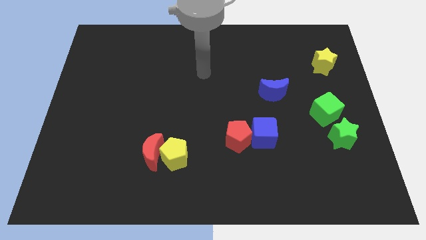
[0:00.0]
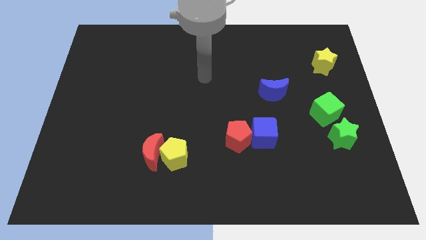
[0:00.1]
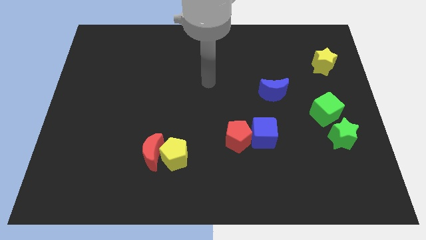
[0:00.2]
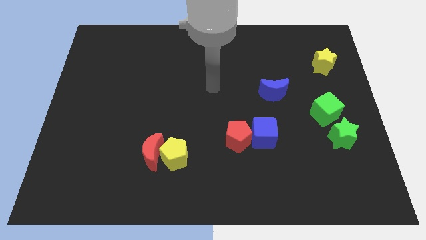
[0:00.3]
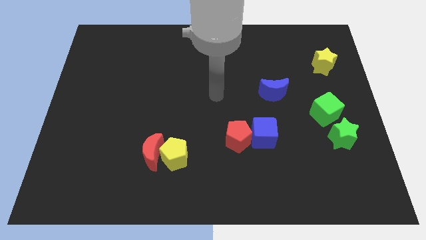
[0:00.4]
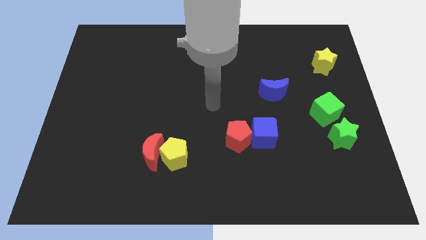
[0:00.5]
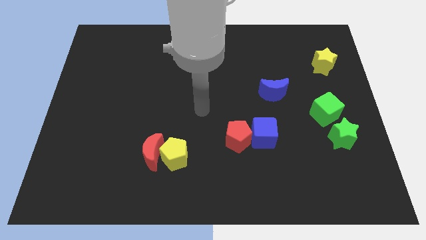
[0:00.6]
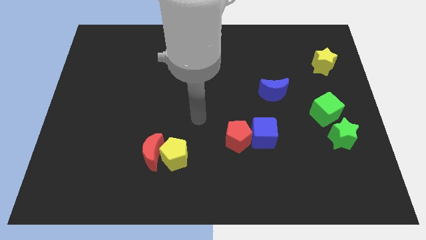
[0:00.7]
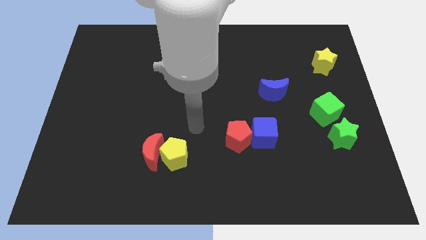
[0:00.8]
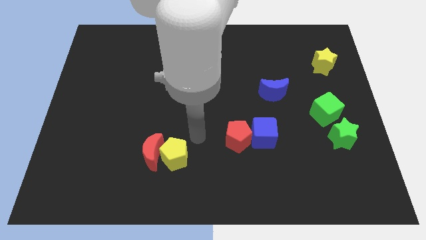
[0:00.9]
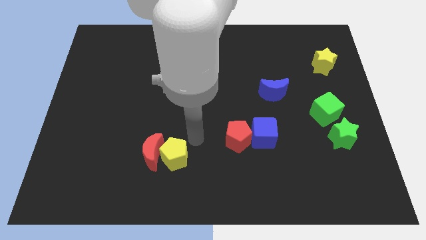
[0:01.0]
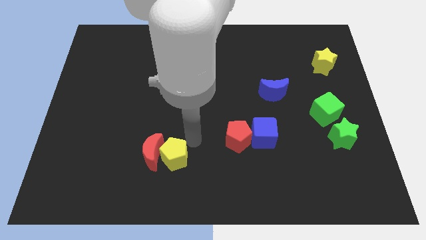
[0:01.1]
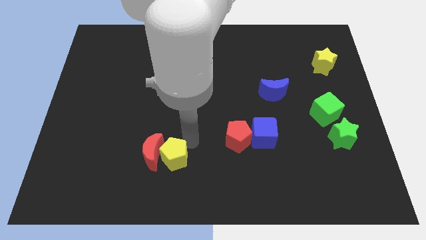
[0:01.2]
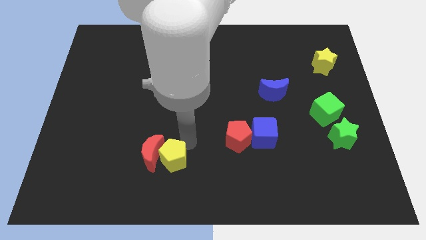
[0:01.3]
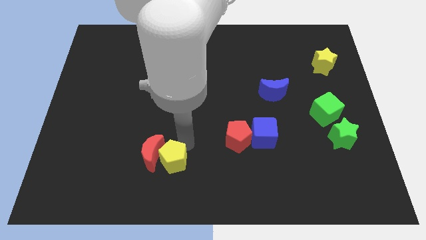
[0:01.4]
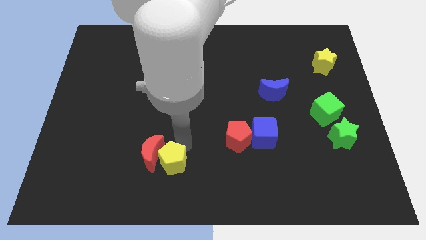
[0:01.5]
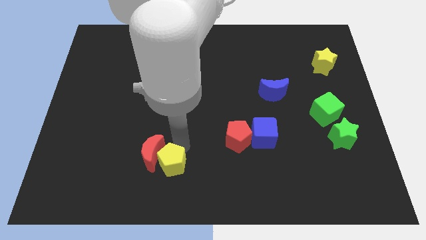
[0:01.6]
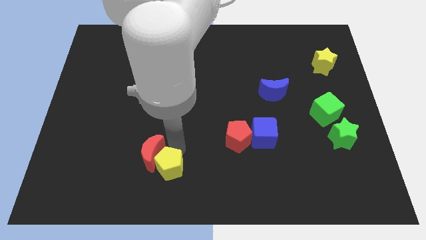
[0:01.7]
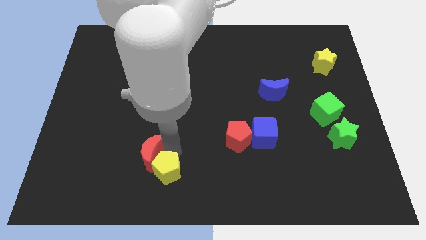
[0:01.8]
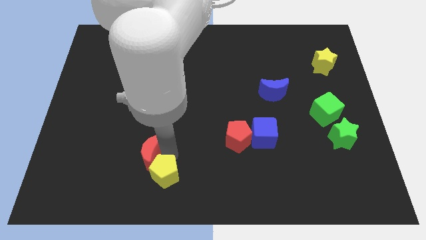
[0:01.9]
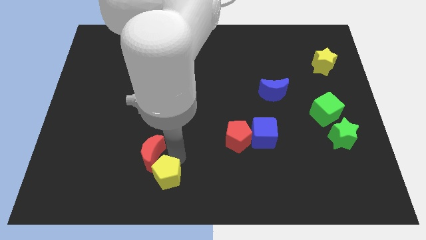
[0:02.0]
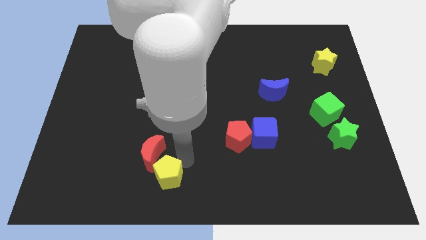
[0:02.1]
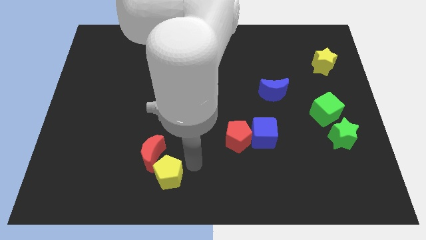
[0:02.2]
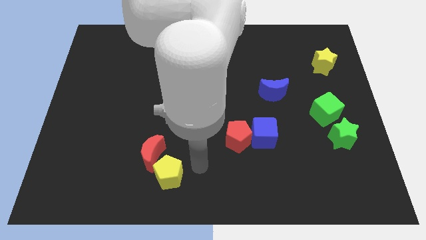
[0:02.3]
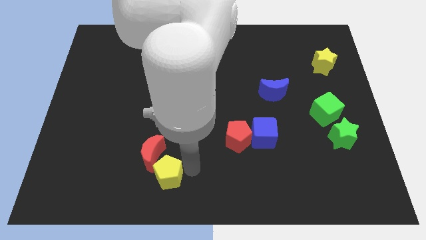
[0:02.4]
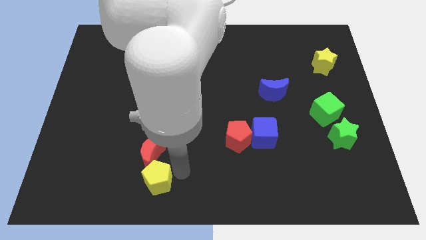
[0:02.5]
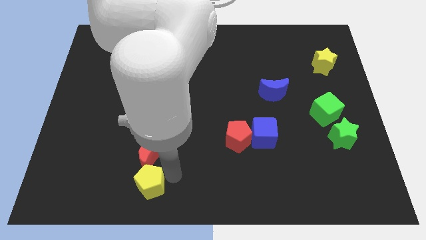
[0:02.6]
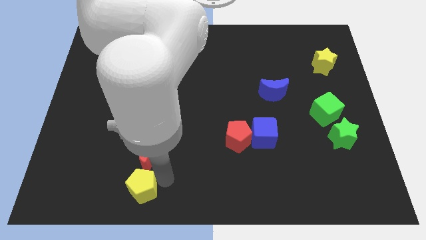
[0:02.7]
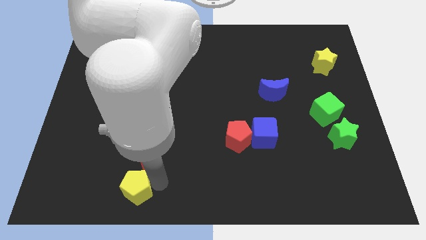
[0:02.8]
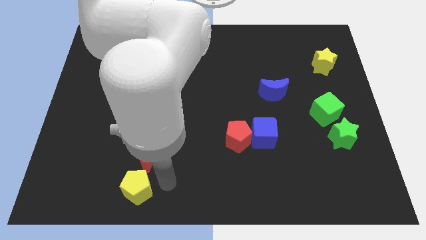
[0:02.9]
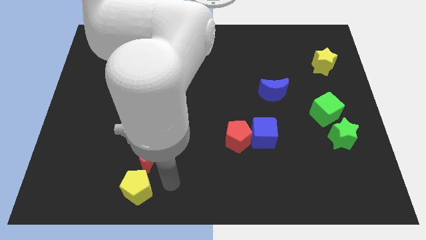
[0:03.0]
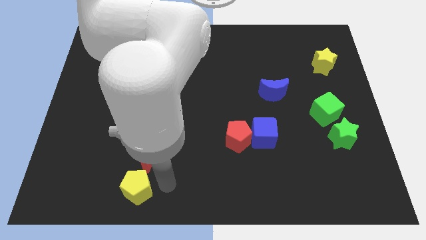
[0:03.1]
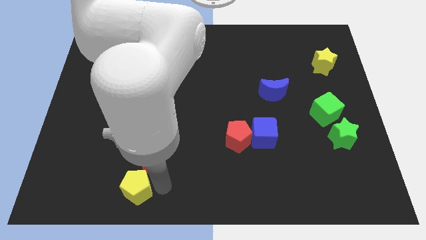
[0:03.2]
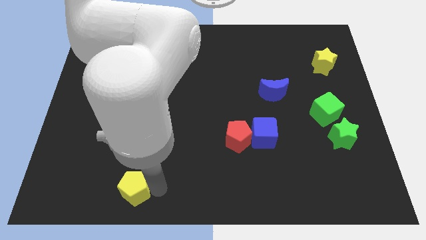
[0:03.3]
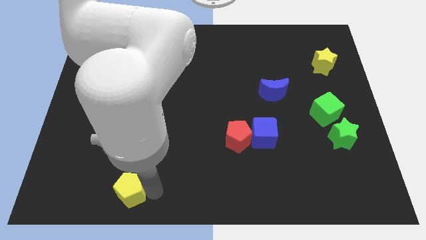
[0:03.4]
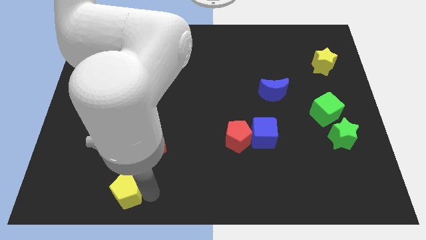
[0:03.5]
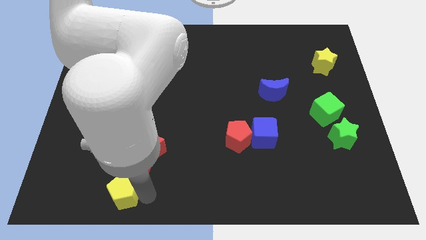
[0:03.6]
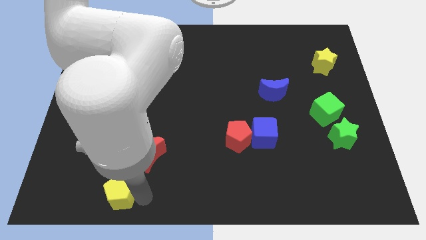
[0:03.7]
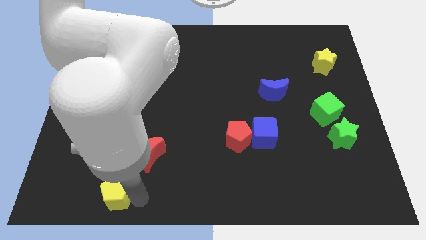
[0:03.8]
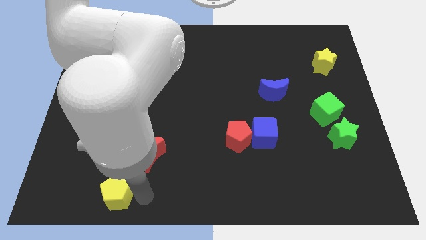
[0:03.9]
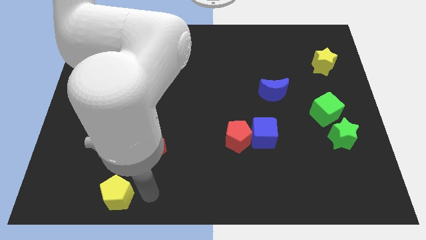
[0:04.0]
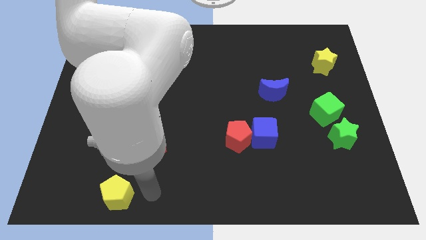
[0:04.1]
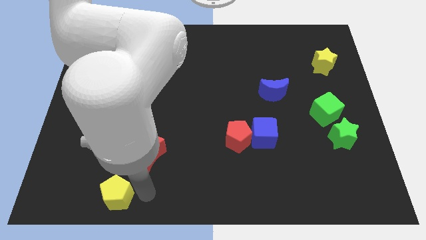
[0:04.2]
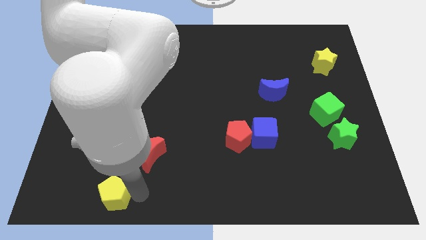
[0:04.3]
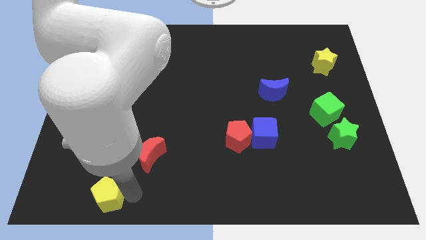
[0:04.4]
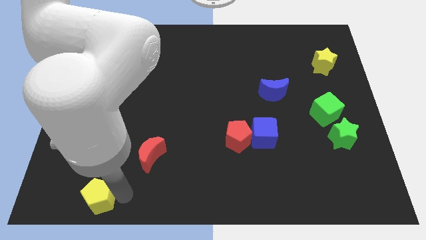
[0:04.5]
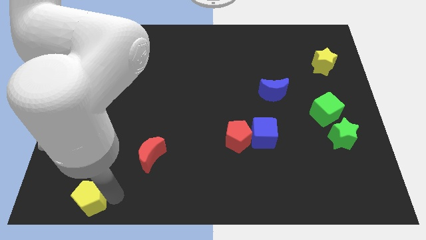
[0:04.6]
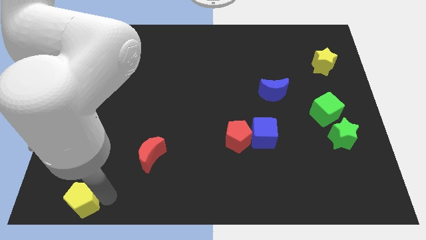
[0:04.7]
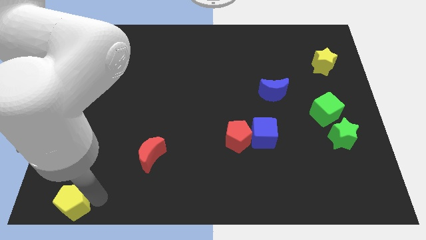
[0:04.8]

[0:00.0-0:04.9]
put the yellow pentagon to the bottom left of the board

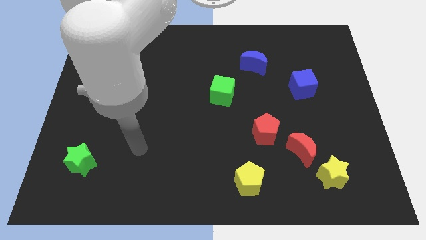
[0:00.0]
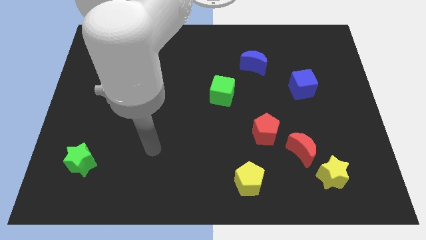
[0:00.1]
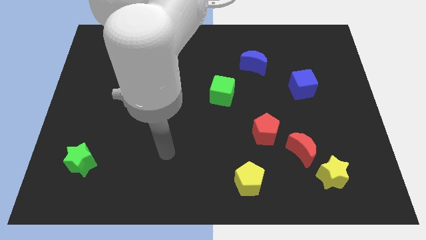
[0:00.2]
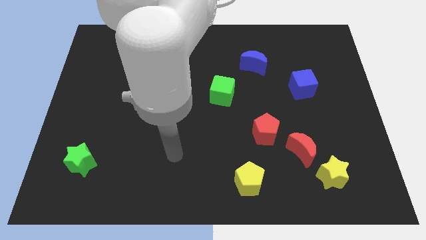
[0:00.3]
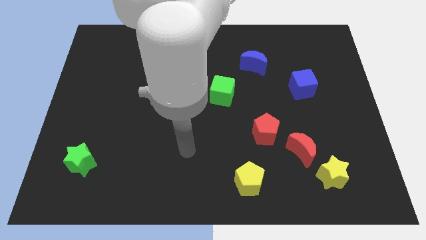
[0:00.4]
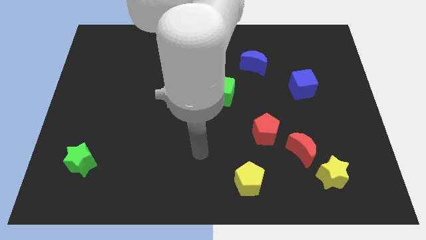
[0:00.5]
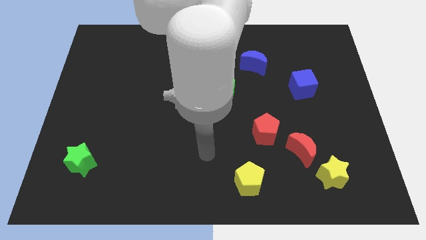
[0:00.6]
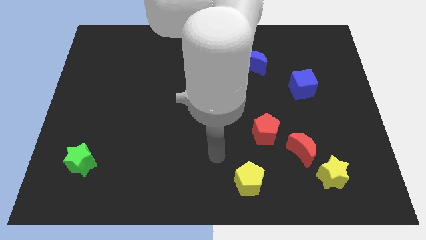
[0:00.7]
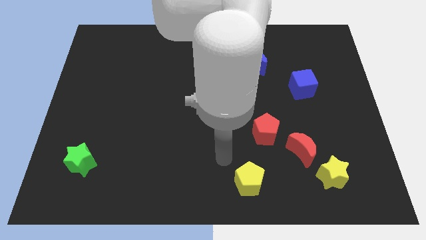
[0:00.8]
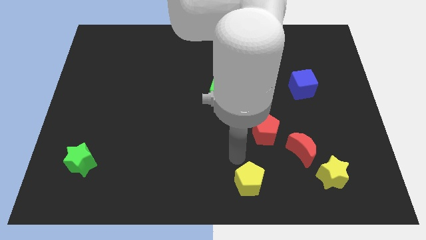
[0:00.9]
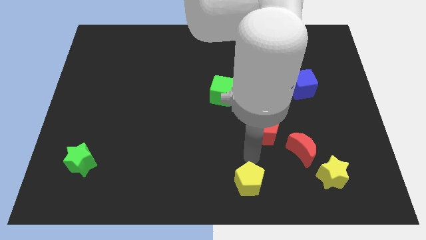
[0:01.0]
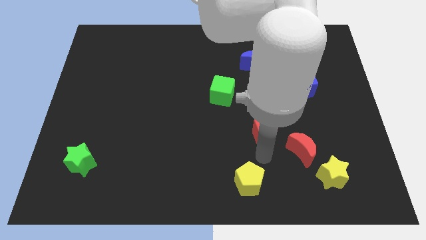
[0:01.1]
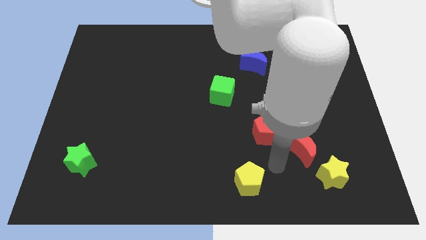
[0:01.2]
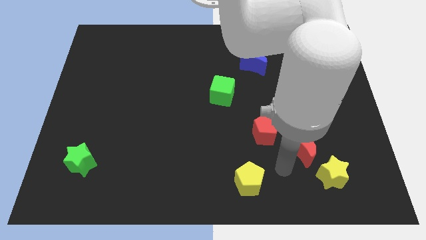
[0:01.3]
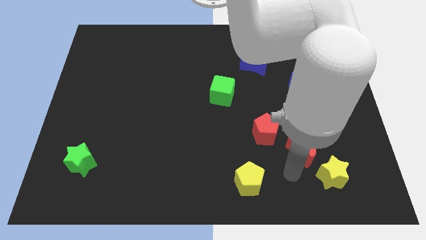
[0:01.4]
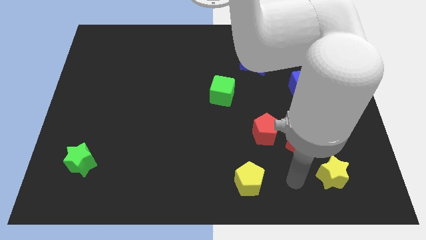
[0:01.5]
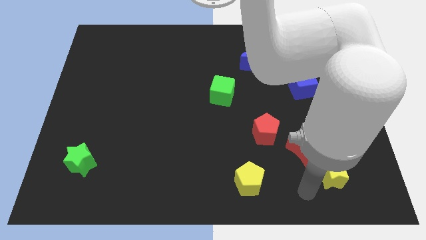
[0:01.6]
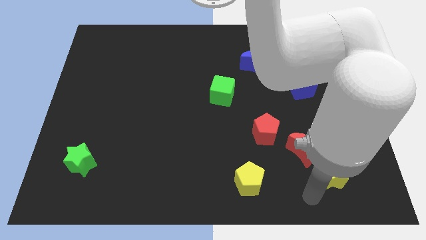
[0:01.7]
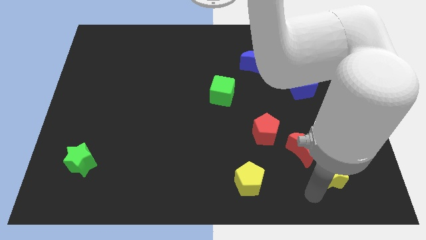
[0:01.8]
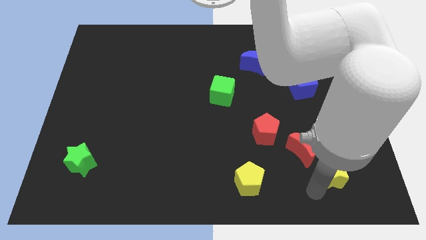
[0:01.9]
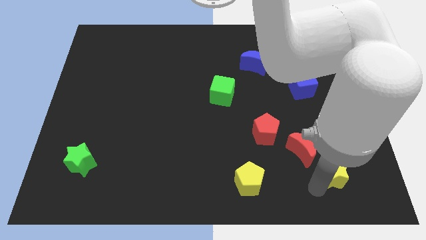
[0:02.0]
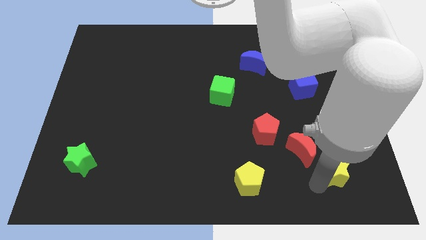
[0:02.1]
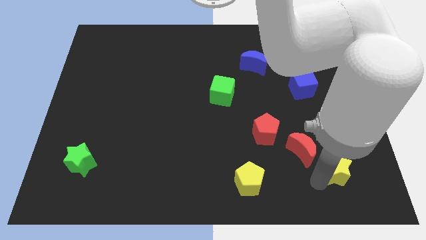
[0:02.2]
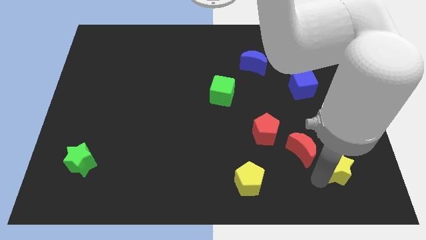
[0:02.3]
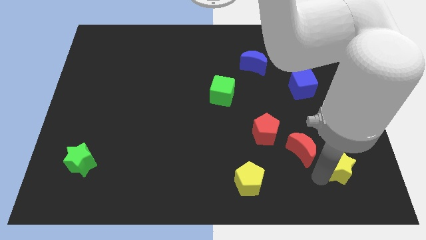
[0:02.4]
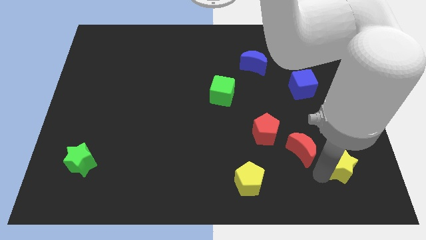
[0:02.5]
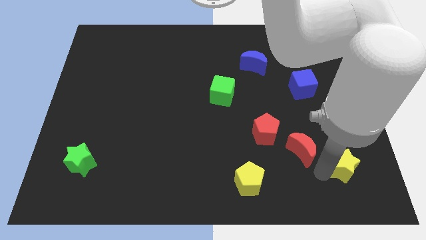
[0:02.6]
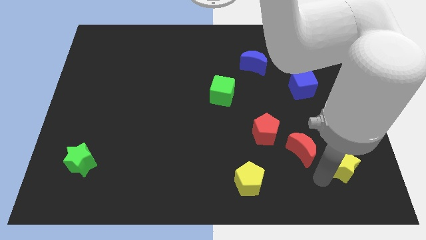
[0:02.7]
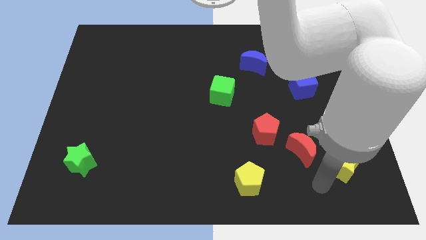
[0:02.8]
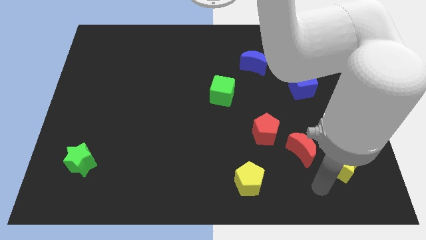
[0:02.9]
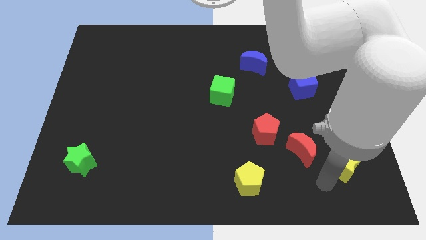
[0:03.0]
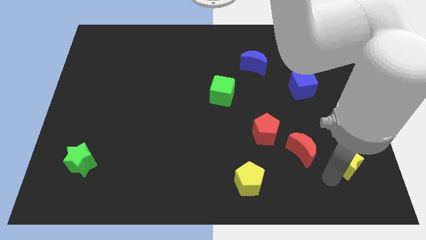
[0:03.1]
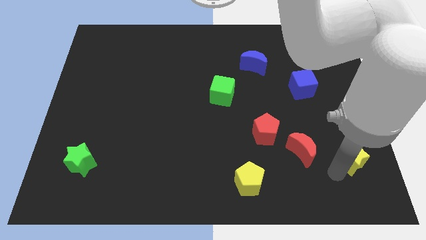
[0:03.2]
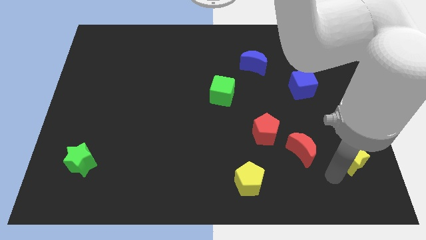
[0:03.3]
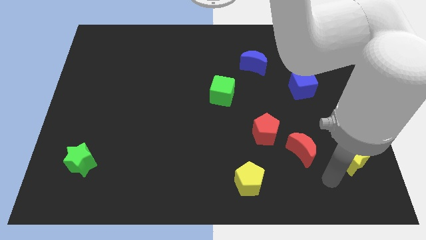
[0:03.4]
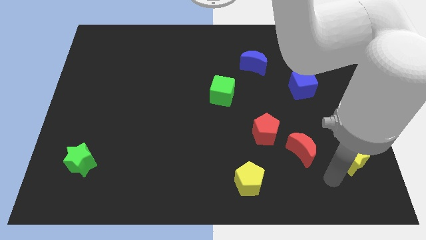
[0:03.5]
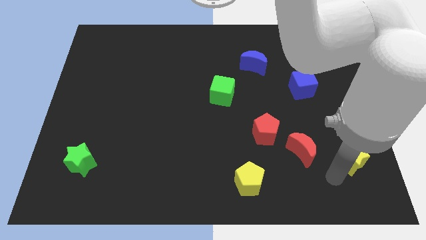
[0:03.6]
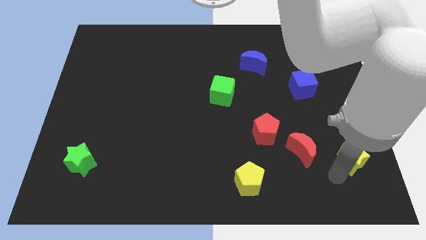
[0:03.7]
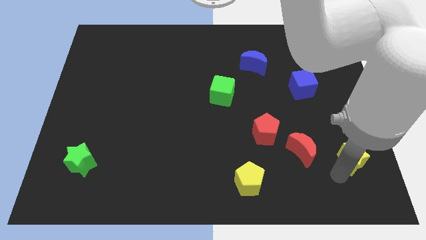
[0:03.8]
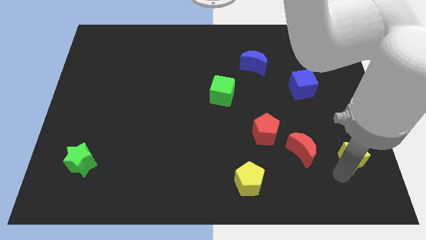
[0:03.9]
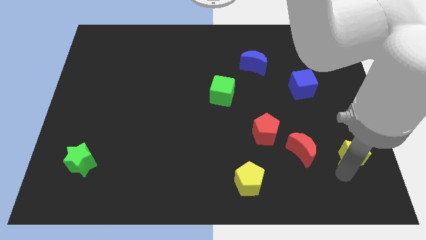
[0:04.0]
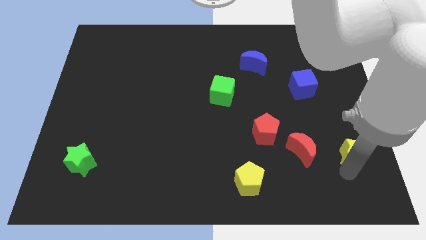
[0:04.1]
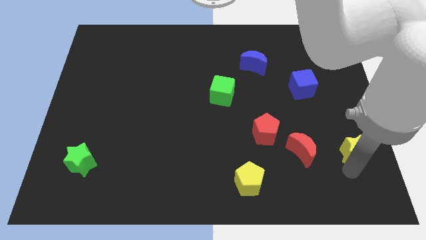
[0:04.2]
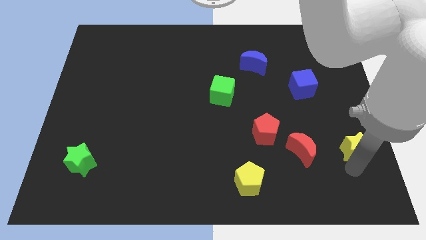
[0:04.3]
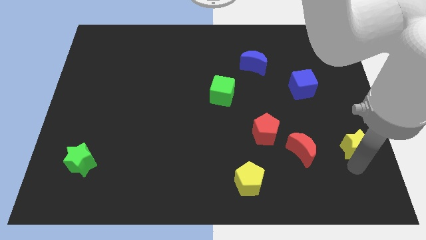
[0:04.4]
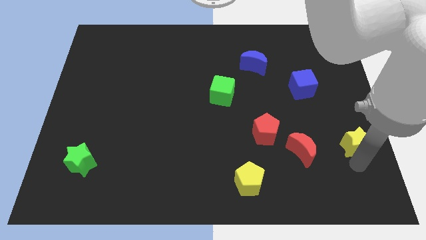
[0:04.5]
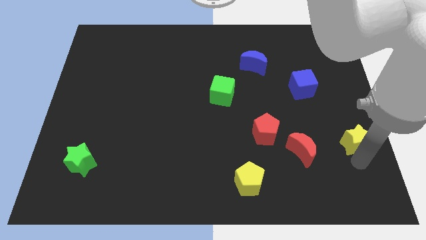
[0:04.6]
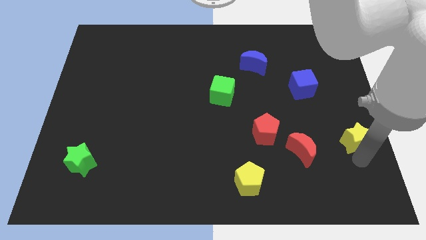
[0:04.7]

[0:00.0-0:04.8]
move the yellow star to the center right
